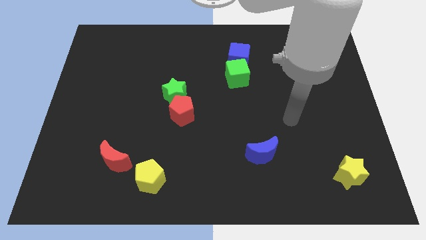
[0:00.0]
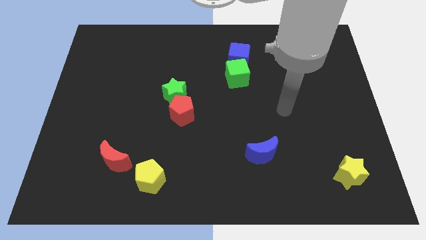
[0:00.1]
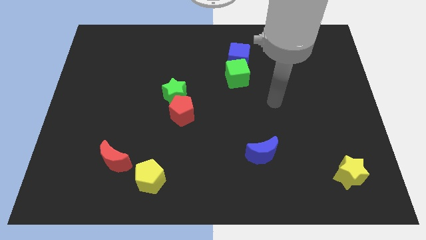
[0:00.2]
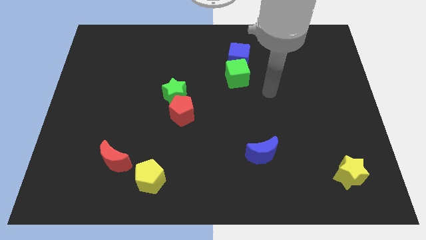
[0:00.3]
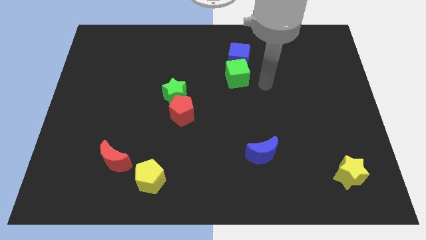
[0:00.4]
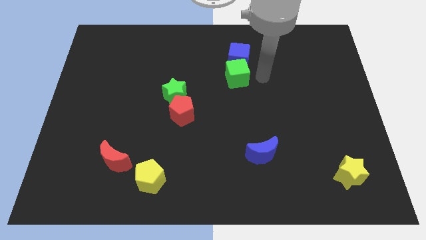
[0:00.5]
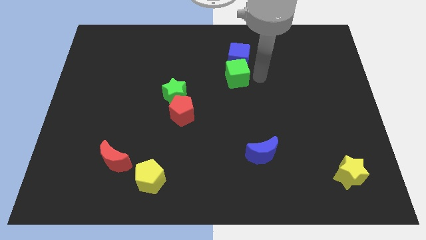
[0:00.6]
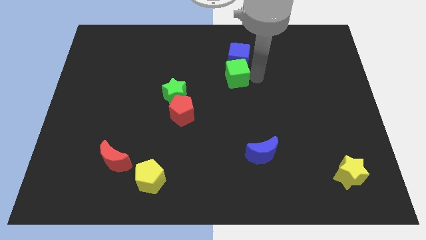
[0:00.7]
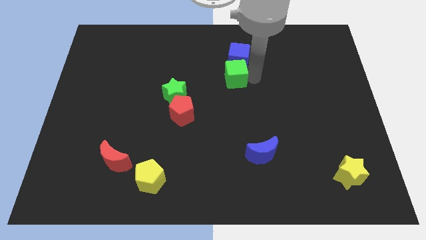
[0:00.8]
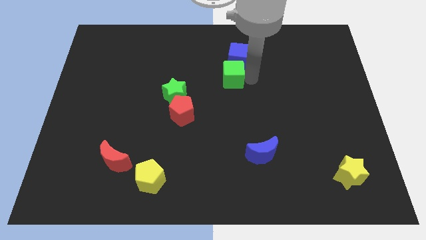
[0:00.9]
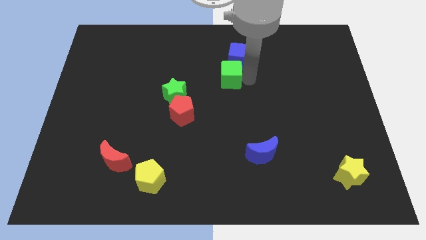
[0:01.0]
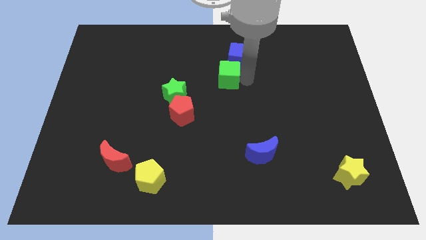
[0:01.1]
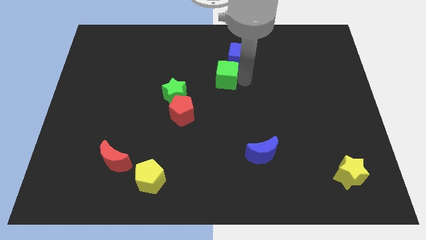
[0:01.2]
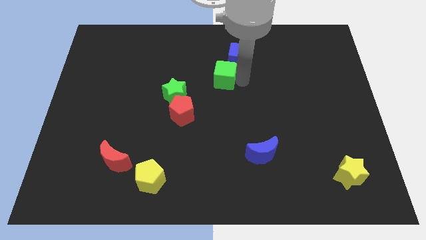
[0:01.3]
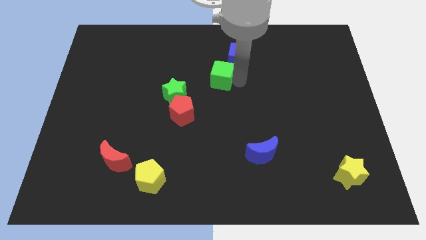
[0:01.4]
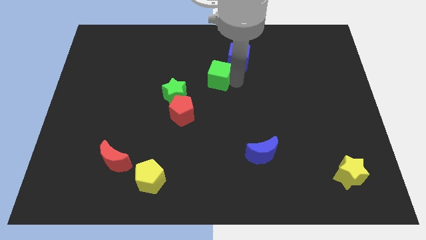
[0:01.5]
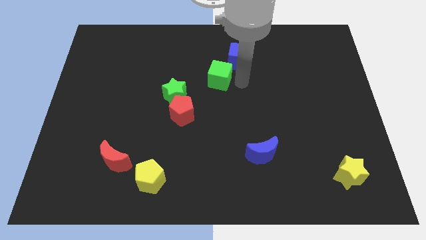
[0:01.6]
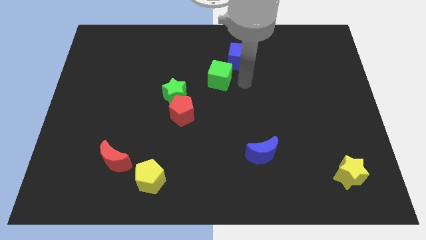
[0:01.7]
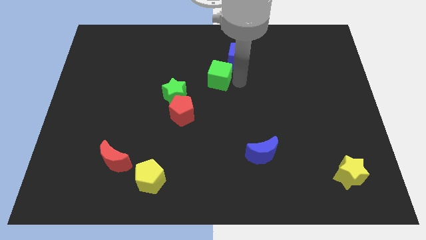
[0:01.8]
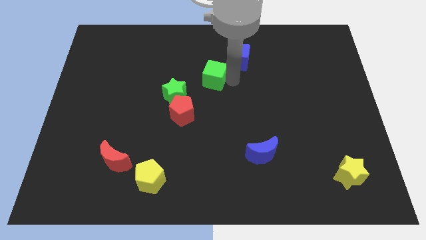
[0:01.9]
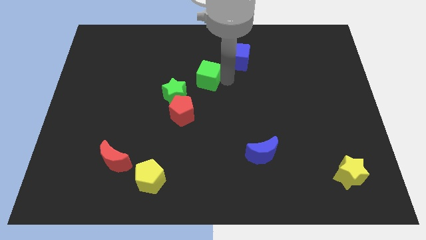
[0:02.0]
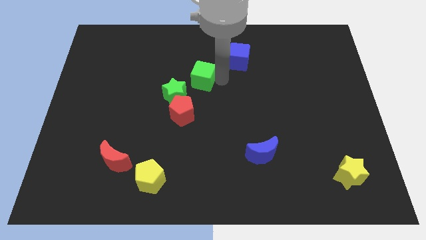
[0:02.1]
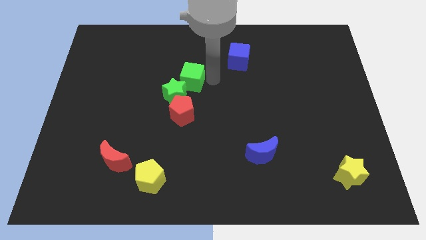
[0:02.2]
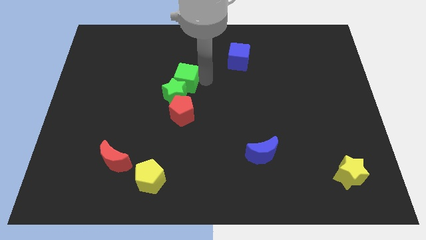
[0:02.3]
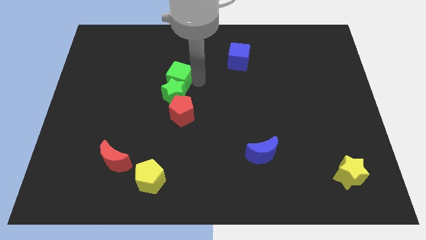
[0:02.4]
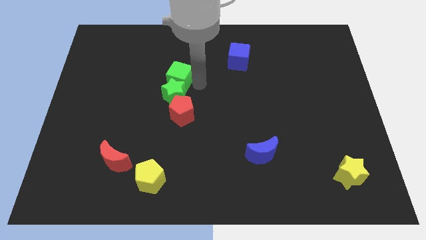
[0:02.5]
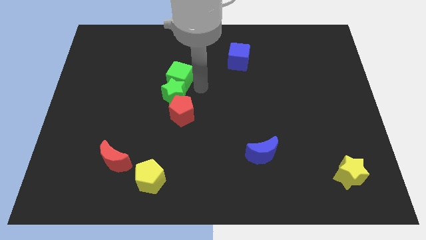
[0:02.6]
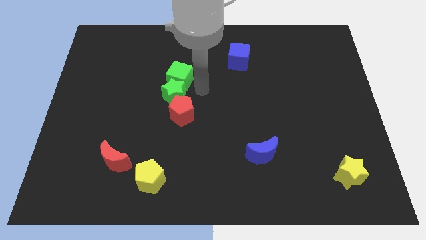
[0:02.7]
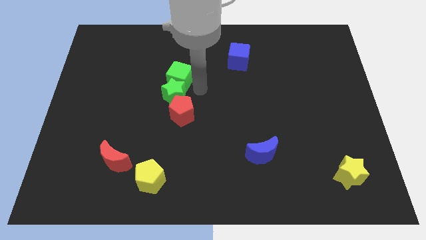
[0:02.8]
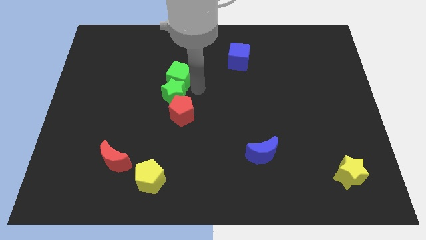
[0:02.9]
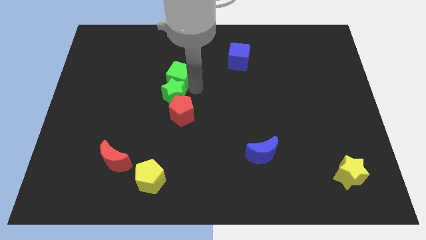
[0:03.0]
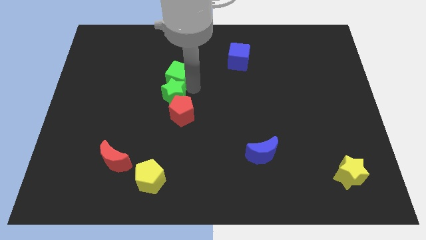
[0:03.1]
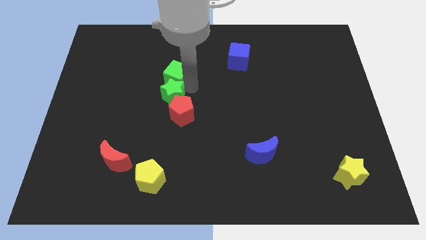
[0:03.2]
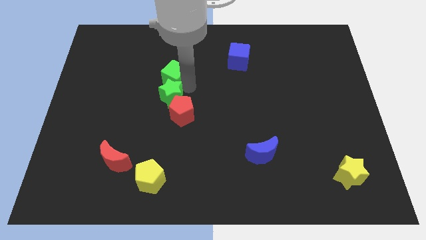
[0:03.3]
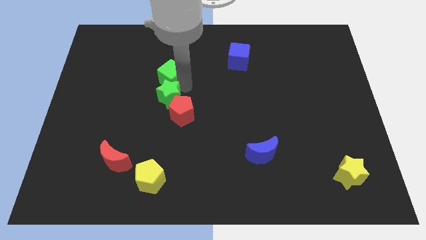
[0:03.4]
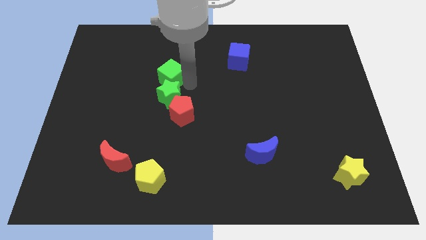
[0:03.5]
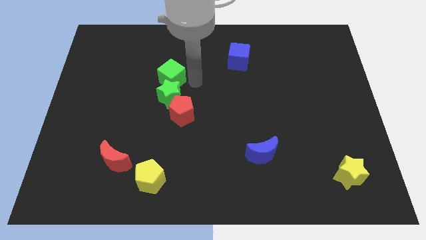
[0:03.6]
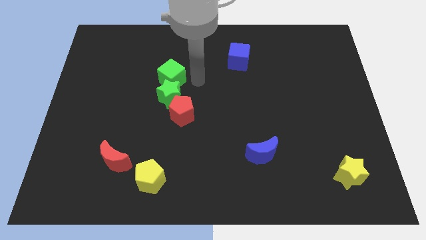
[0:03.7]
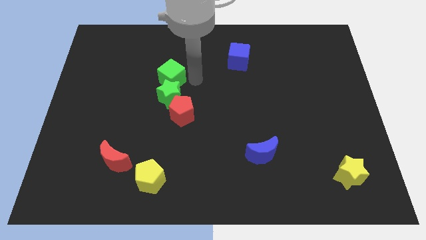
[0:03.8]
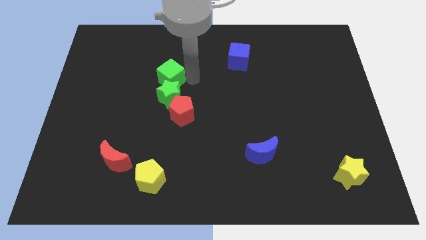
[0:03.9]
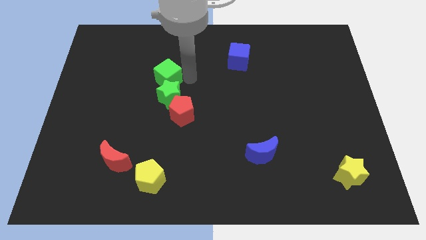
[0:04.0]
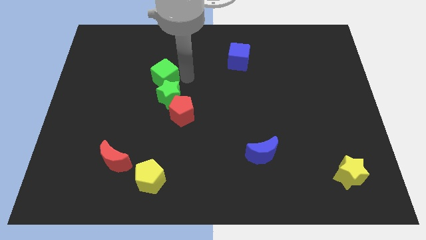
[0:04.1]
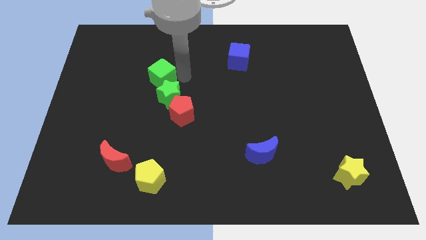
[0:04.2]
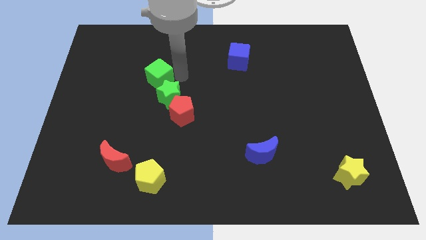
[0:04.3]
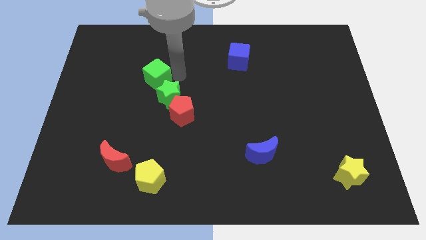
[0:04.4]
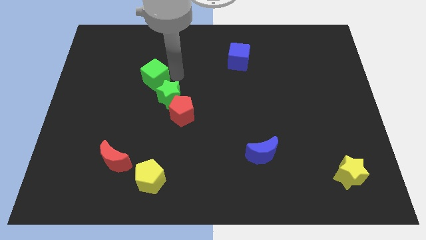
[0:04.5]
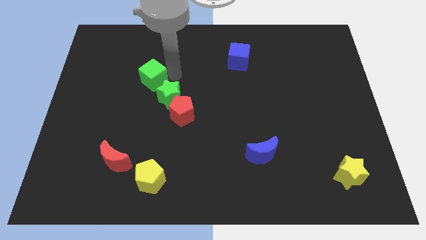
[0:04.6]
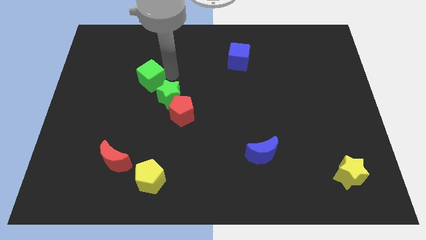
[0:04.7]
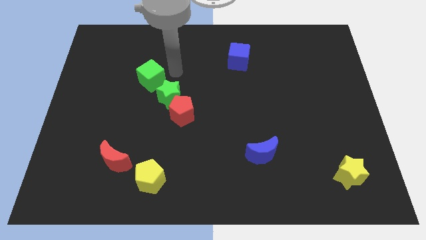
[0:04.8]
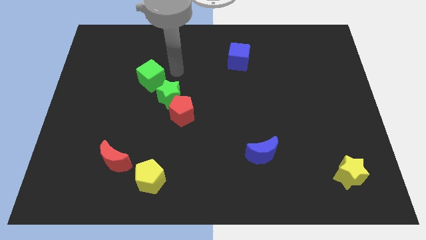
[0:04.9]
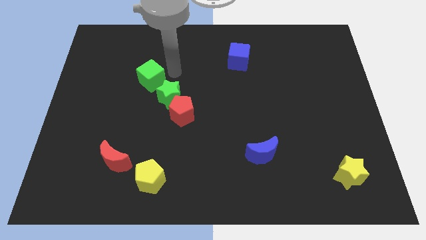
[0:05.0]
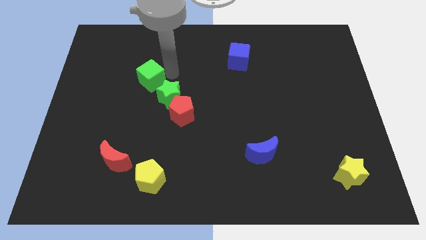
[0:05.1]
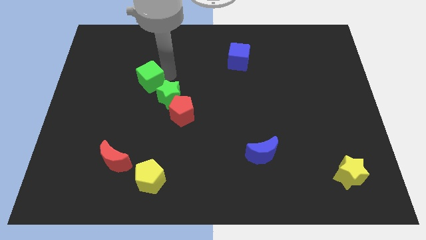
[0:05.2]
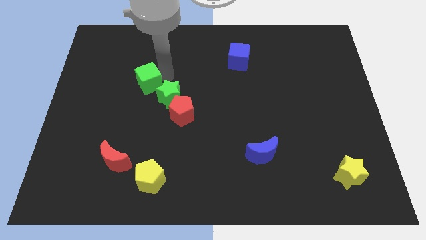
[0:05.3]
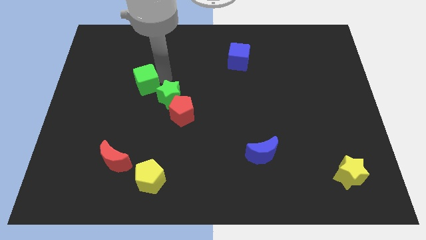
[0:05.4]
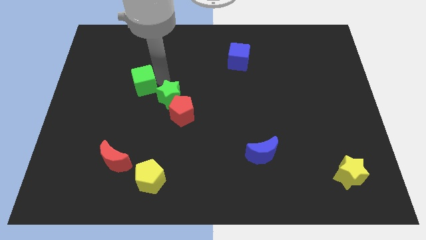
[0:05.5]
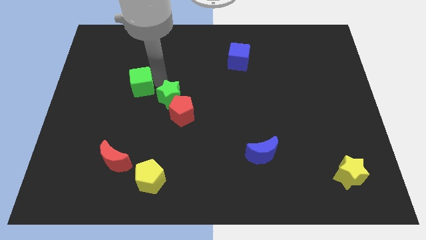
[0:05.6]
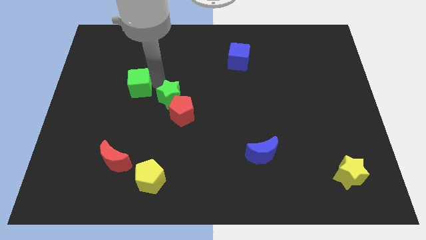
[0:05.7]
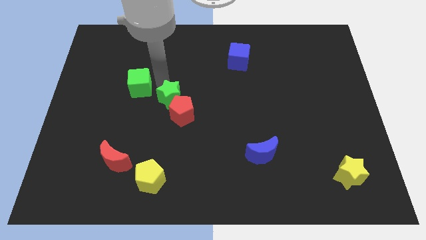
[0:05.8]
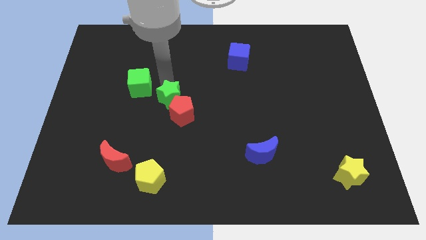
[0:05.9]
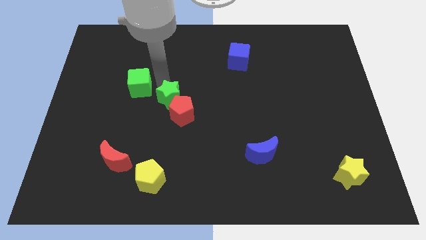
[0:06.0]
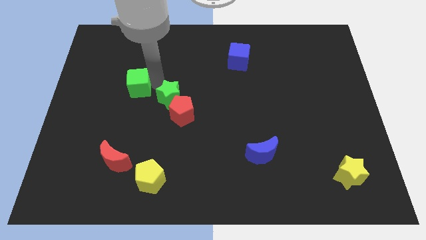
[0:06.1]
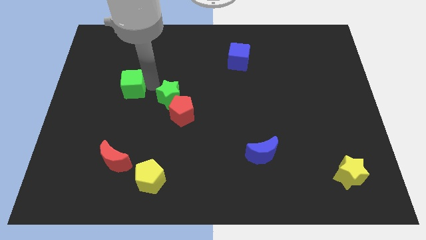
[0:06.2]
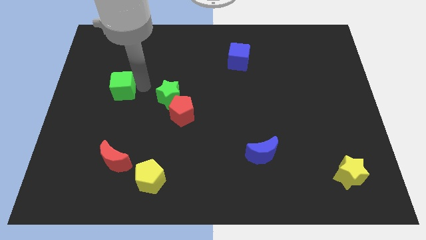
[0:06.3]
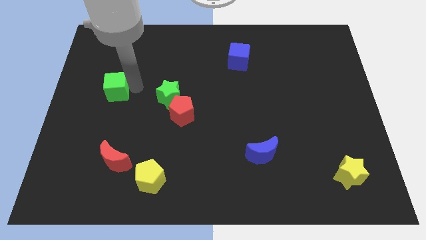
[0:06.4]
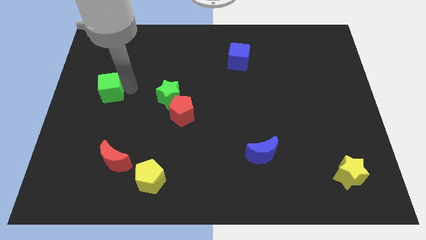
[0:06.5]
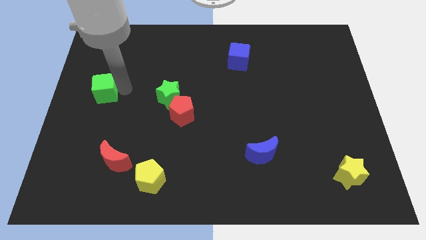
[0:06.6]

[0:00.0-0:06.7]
push the green cube to the left side of the board
